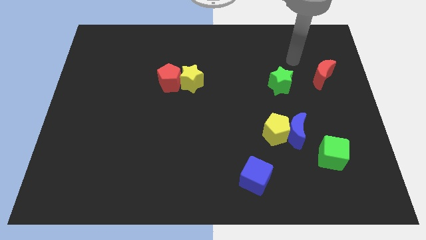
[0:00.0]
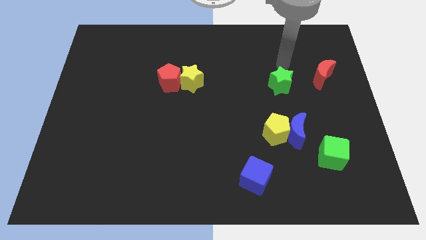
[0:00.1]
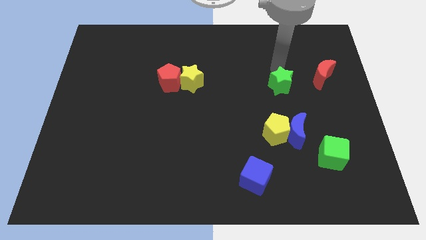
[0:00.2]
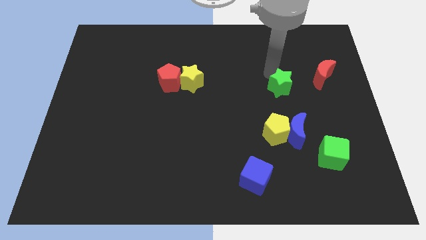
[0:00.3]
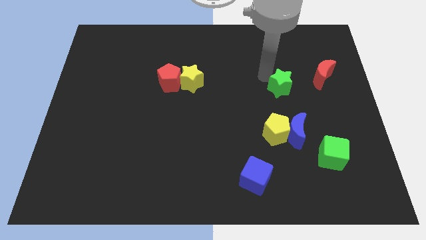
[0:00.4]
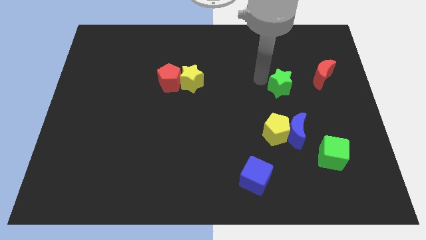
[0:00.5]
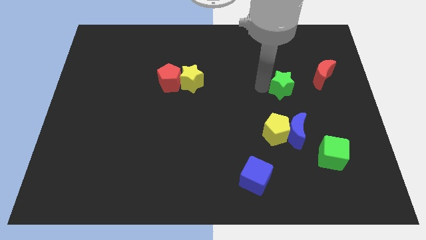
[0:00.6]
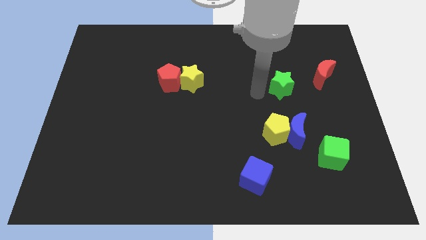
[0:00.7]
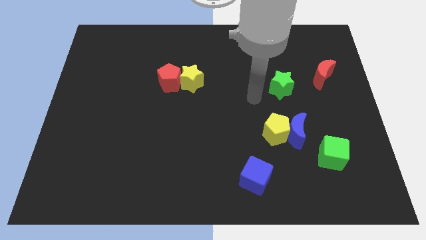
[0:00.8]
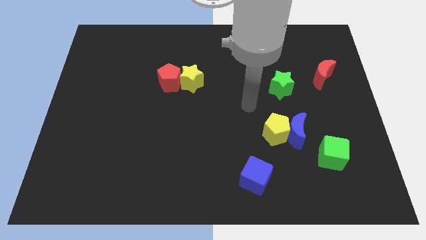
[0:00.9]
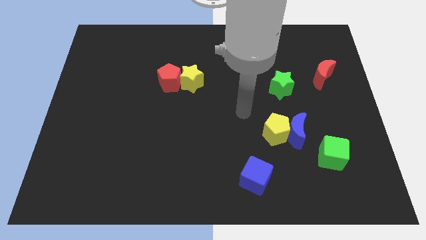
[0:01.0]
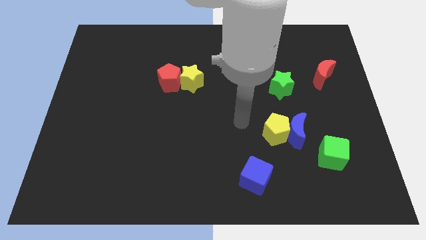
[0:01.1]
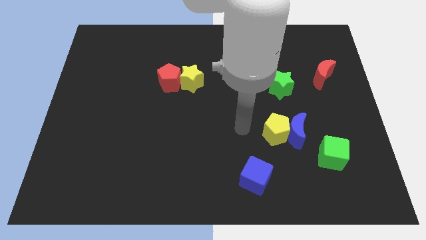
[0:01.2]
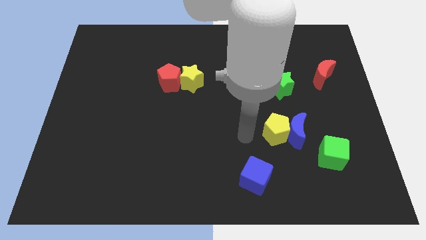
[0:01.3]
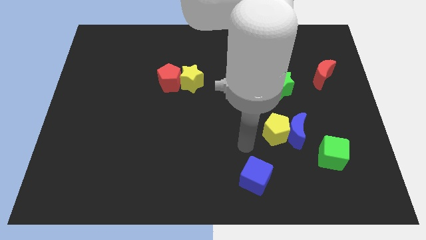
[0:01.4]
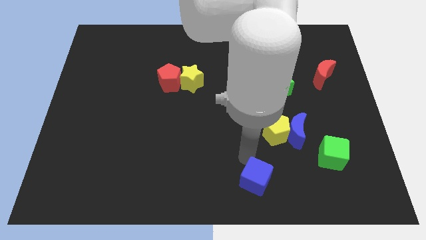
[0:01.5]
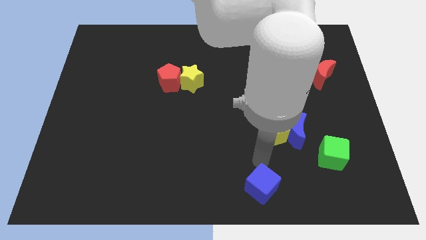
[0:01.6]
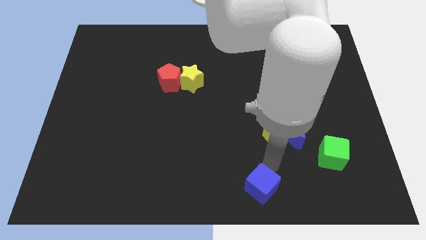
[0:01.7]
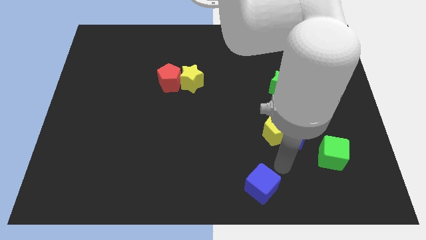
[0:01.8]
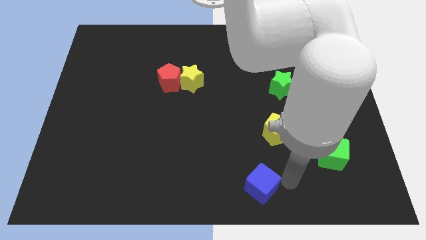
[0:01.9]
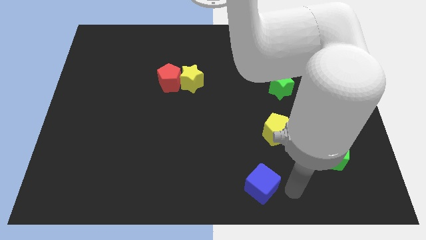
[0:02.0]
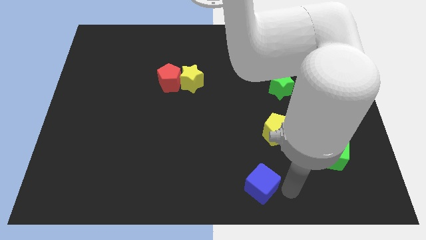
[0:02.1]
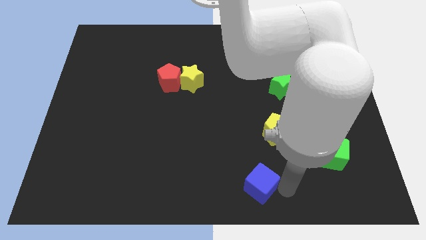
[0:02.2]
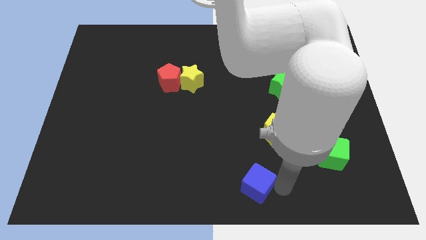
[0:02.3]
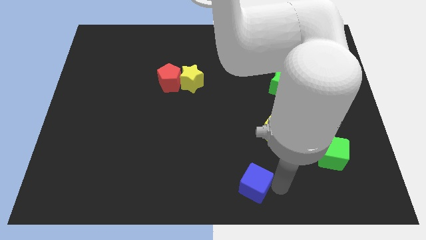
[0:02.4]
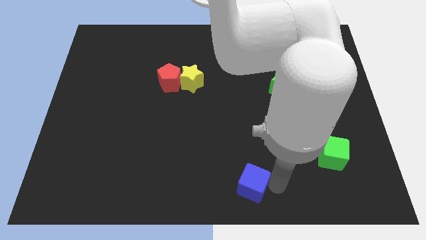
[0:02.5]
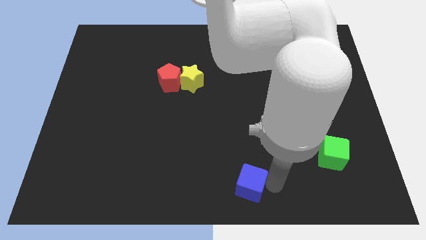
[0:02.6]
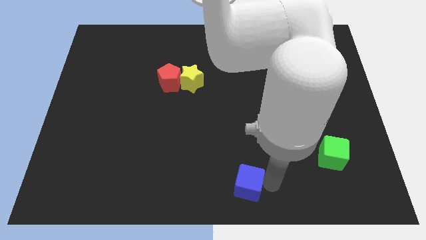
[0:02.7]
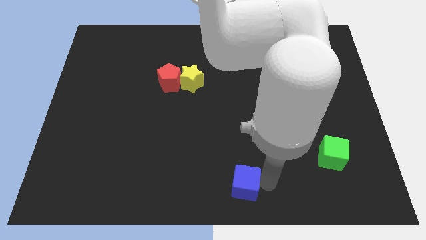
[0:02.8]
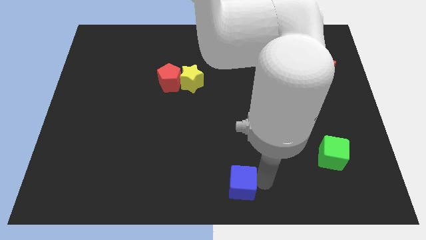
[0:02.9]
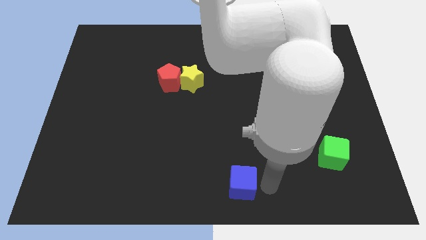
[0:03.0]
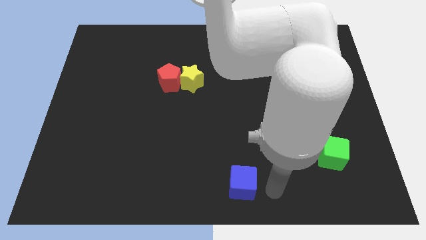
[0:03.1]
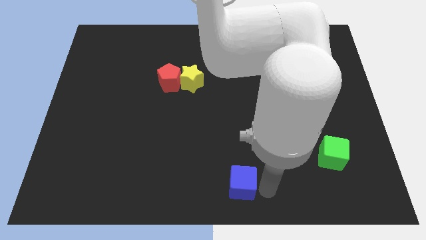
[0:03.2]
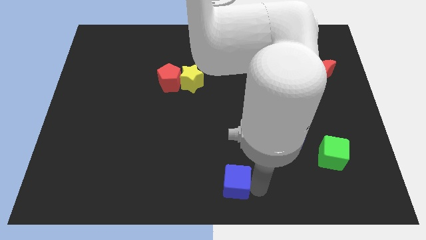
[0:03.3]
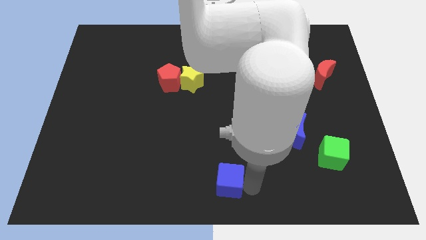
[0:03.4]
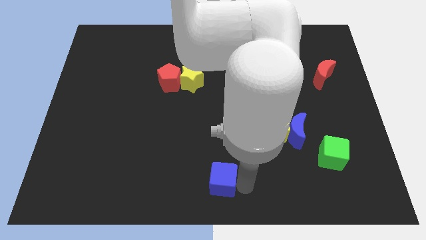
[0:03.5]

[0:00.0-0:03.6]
slightly slide the blue cube to the left

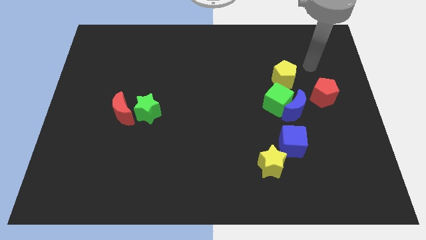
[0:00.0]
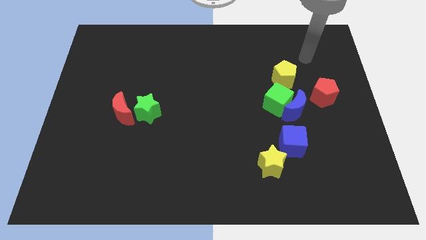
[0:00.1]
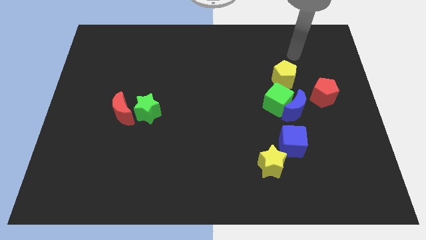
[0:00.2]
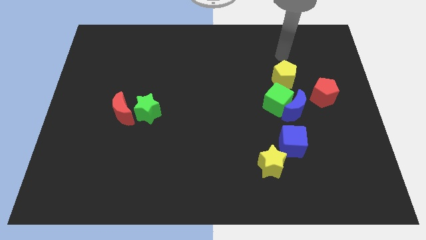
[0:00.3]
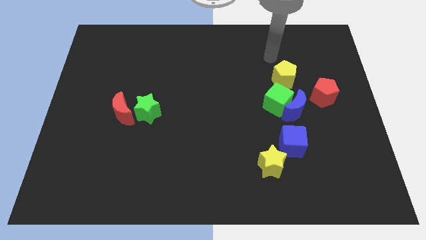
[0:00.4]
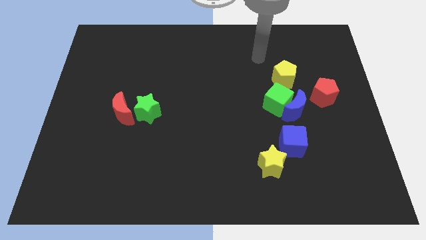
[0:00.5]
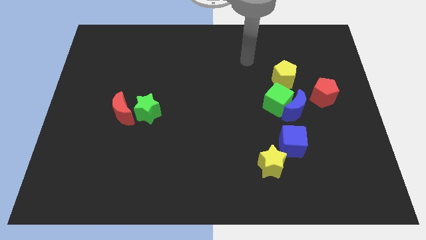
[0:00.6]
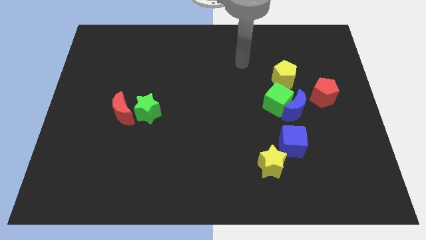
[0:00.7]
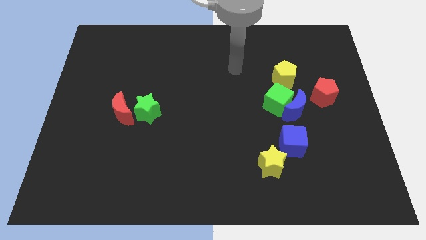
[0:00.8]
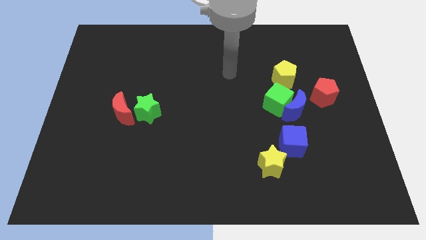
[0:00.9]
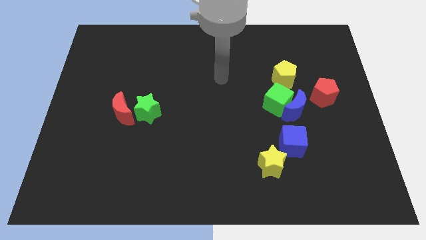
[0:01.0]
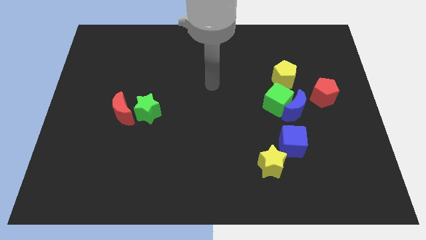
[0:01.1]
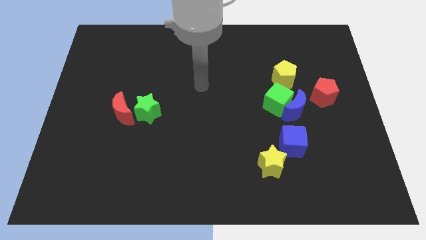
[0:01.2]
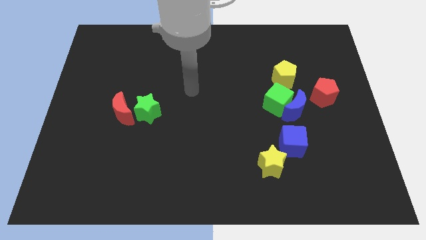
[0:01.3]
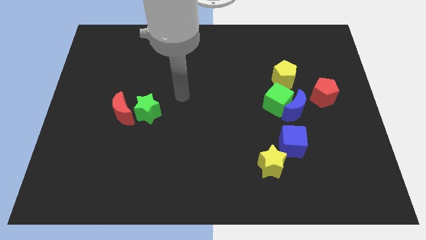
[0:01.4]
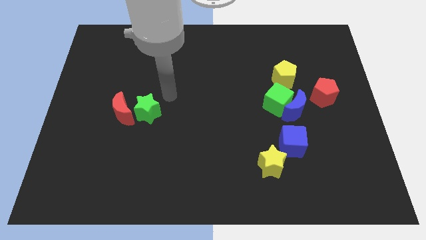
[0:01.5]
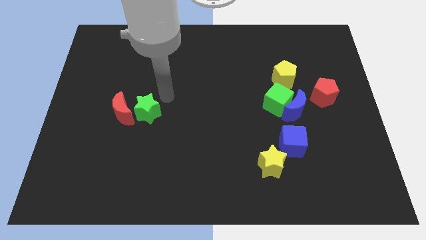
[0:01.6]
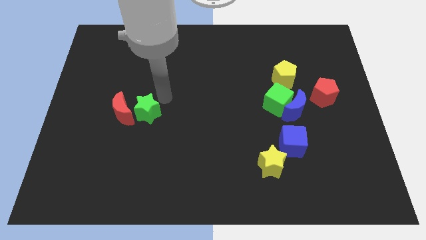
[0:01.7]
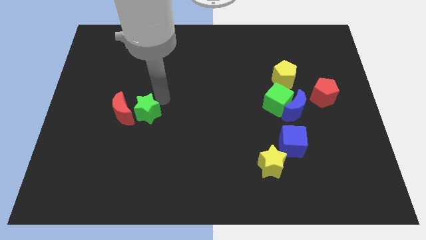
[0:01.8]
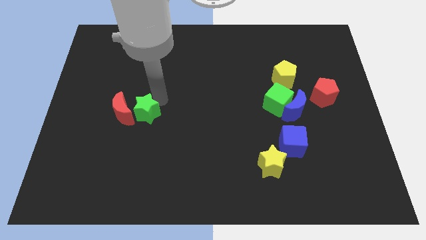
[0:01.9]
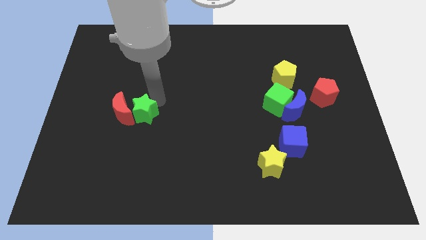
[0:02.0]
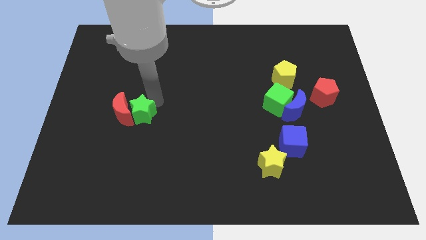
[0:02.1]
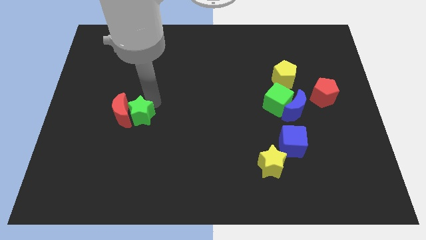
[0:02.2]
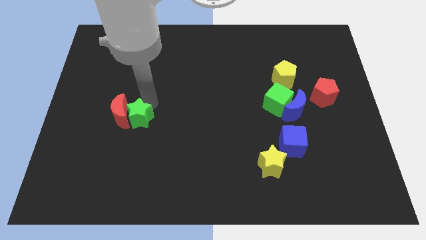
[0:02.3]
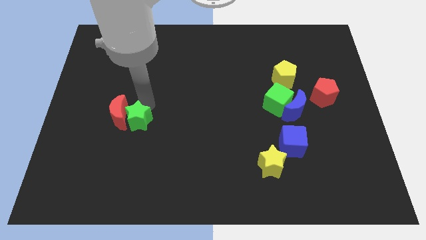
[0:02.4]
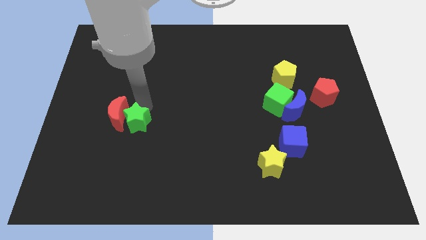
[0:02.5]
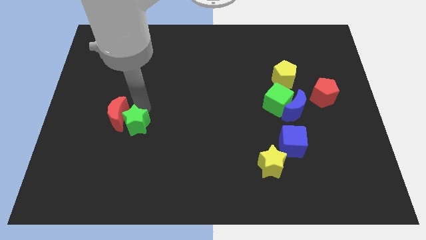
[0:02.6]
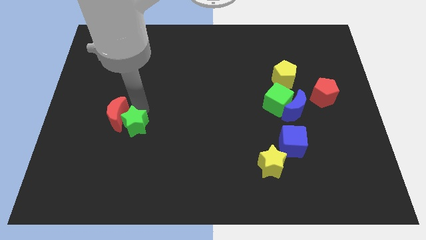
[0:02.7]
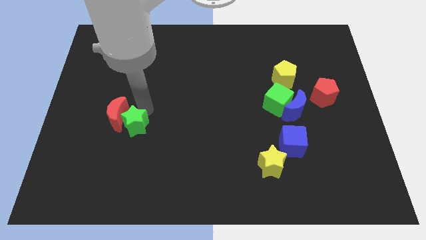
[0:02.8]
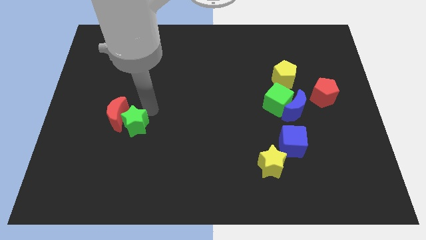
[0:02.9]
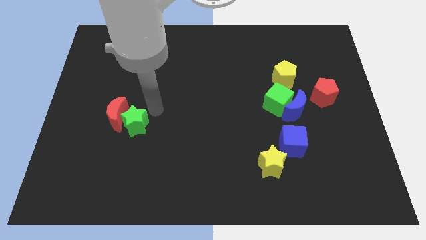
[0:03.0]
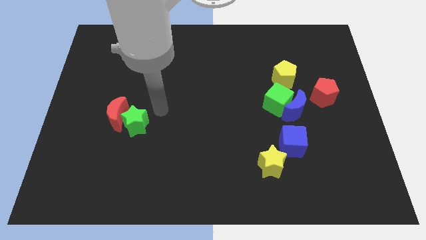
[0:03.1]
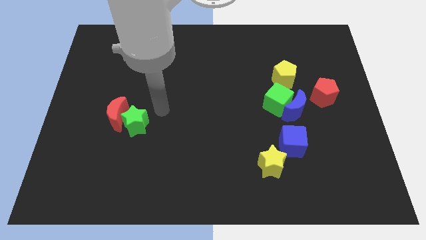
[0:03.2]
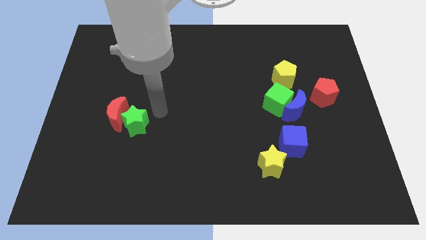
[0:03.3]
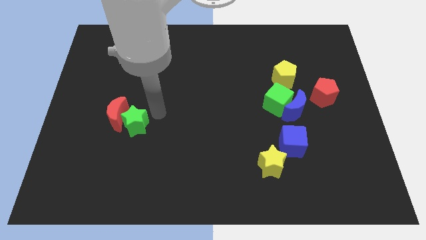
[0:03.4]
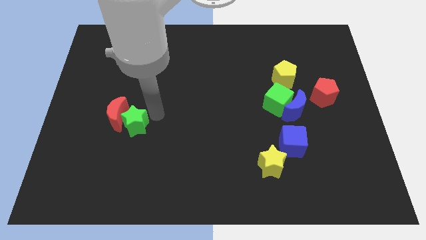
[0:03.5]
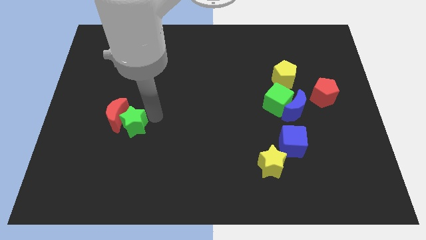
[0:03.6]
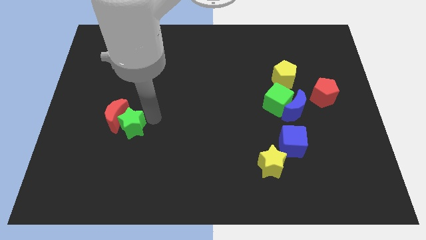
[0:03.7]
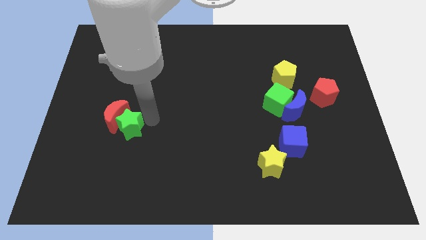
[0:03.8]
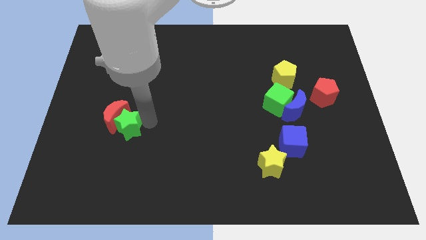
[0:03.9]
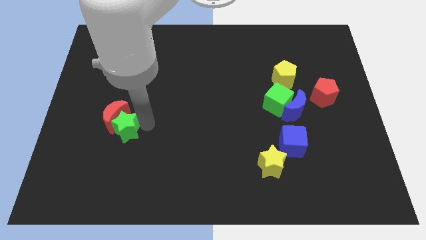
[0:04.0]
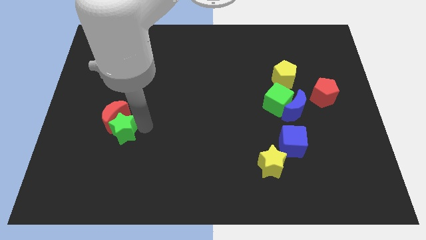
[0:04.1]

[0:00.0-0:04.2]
move the green star slightly downwards and to the left
